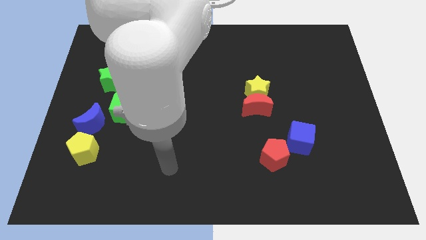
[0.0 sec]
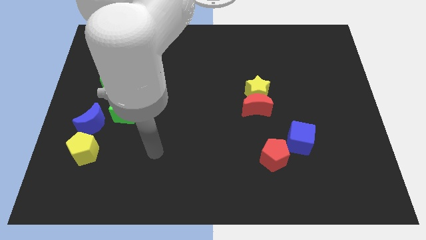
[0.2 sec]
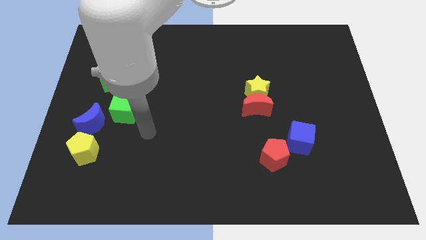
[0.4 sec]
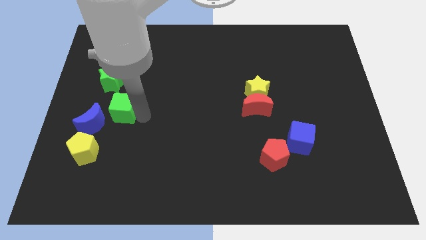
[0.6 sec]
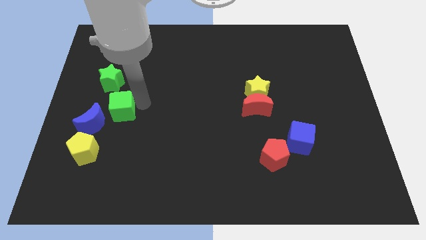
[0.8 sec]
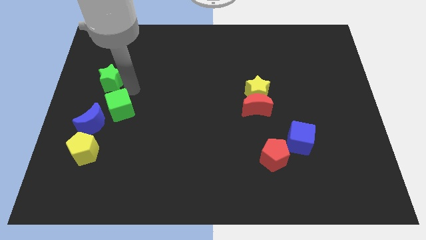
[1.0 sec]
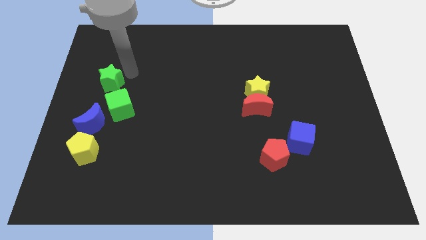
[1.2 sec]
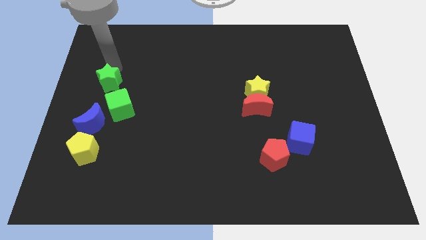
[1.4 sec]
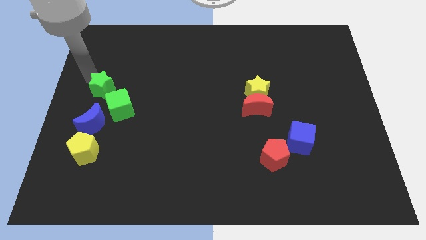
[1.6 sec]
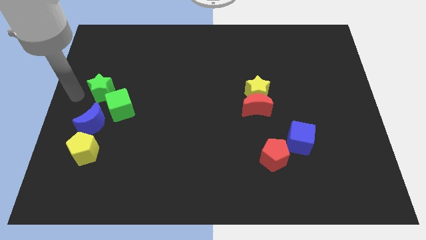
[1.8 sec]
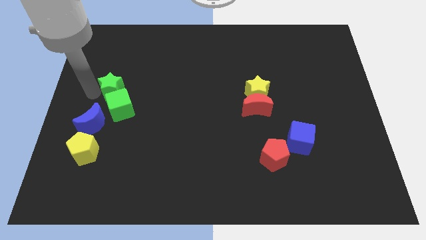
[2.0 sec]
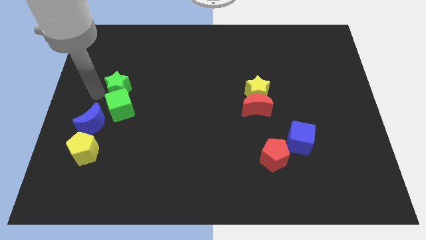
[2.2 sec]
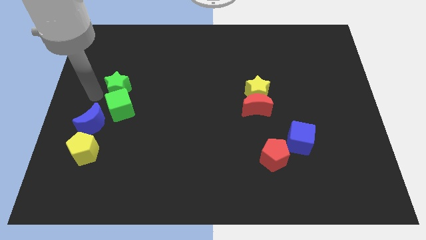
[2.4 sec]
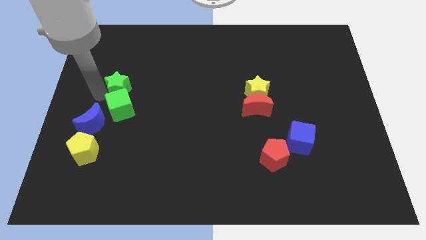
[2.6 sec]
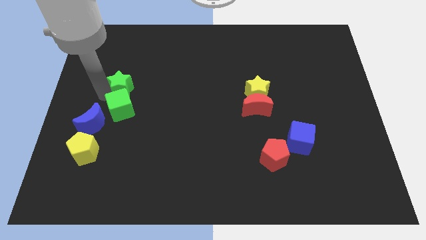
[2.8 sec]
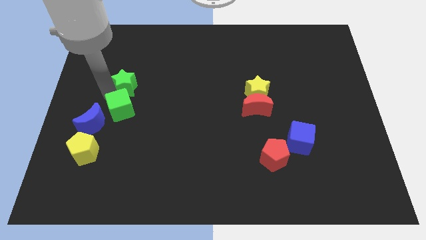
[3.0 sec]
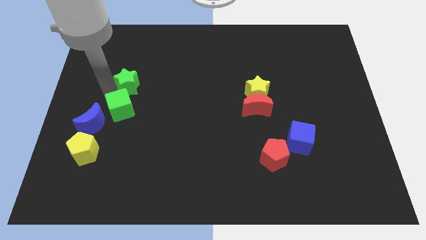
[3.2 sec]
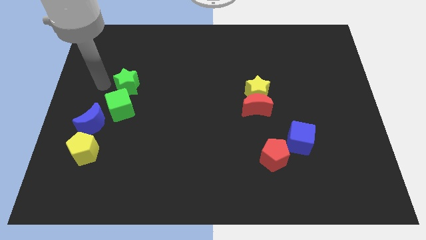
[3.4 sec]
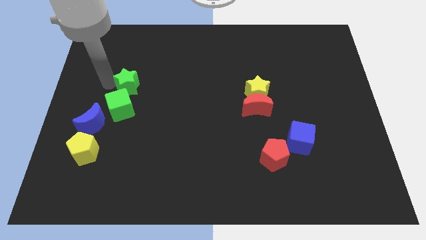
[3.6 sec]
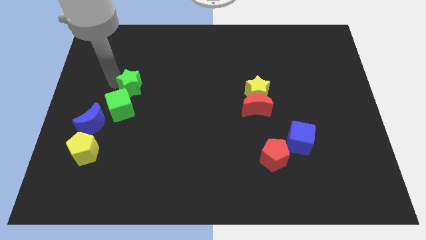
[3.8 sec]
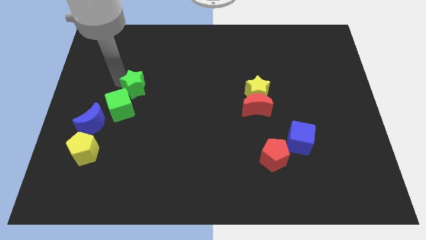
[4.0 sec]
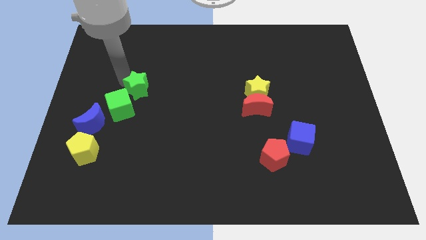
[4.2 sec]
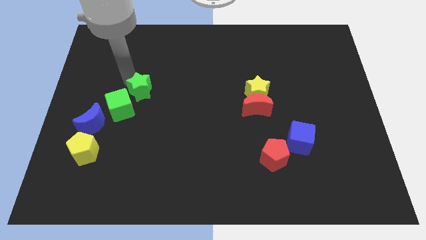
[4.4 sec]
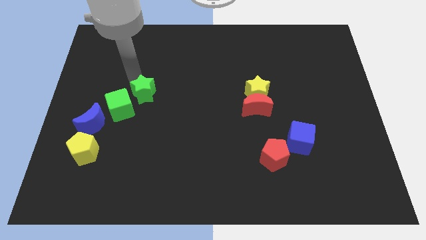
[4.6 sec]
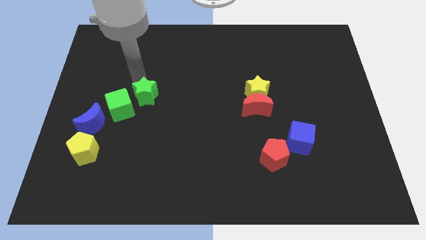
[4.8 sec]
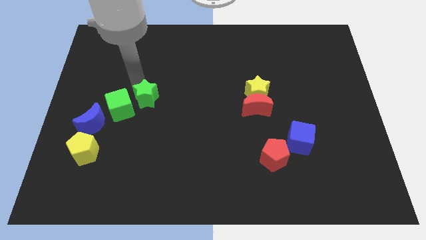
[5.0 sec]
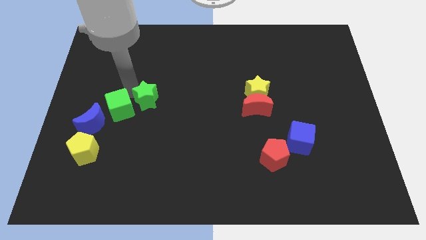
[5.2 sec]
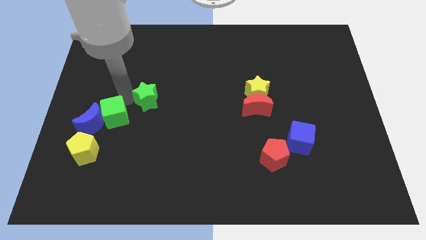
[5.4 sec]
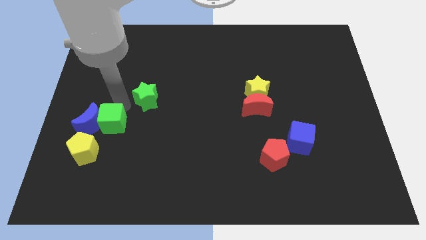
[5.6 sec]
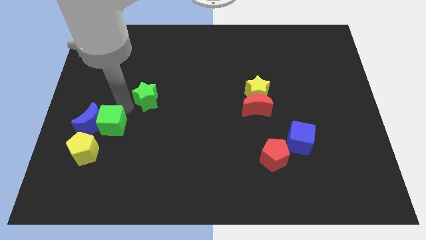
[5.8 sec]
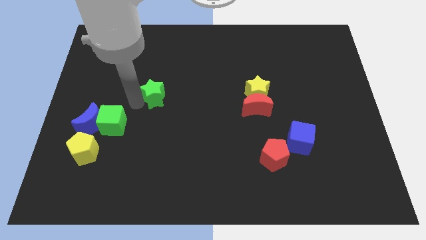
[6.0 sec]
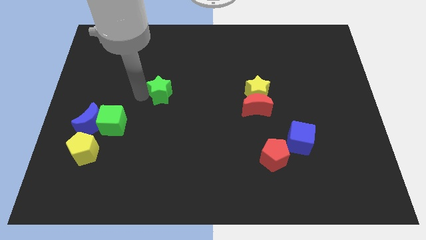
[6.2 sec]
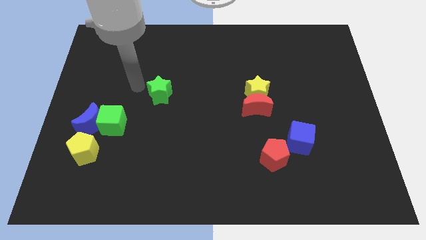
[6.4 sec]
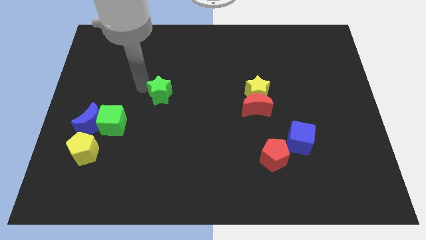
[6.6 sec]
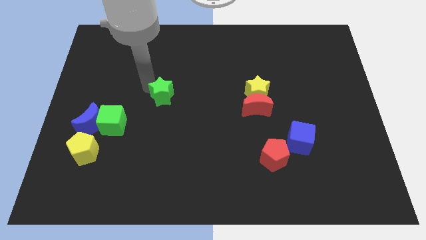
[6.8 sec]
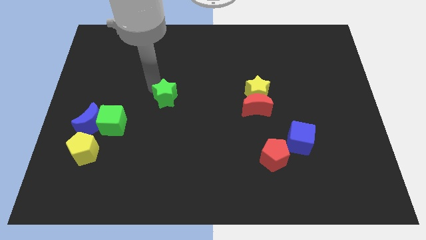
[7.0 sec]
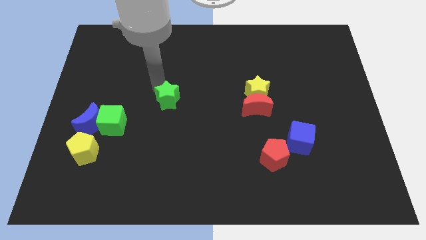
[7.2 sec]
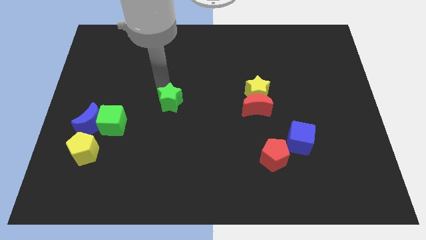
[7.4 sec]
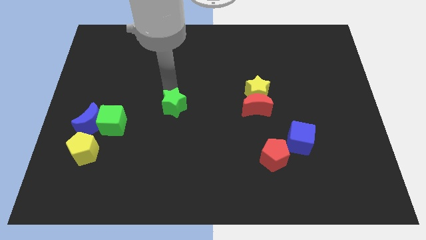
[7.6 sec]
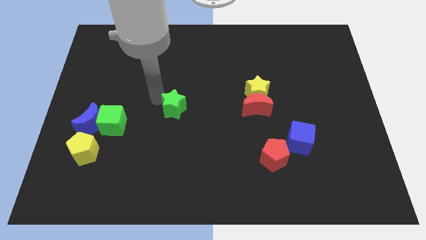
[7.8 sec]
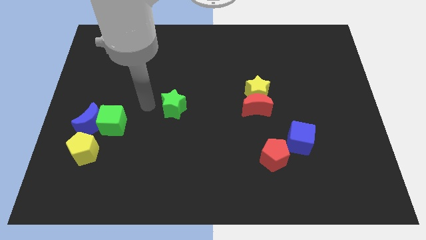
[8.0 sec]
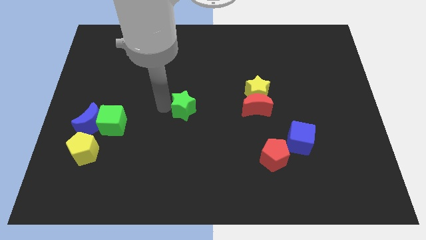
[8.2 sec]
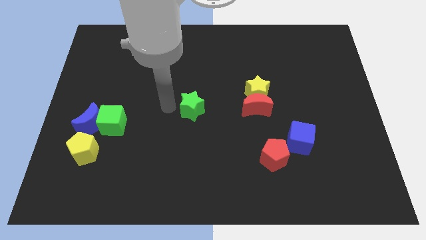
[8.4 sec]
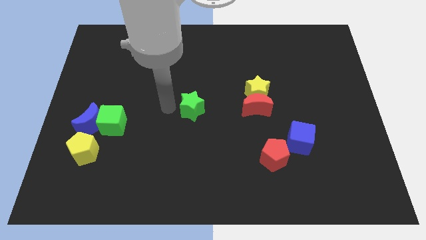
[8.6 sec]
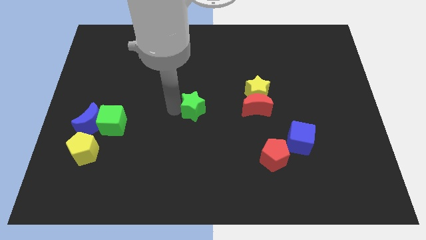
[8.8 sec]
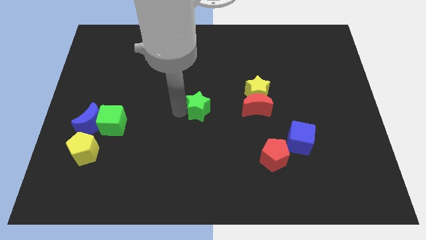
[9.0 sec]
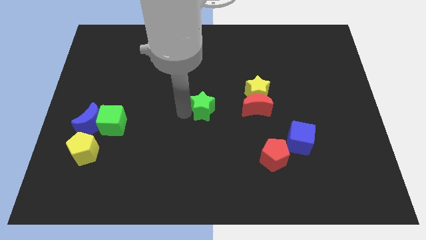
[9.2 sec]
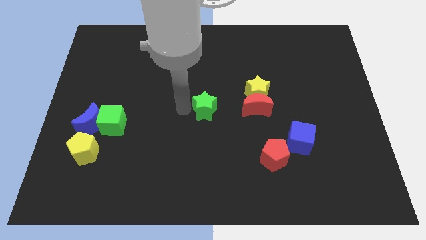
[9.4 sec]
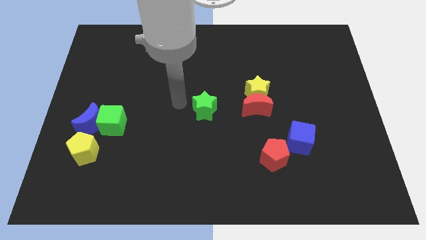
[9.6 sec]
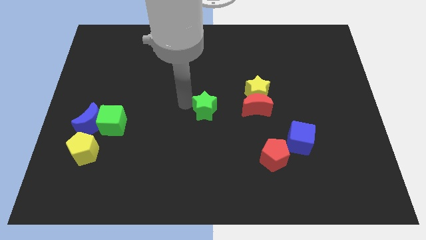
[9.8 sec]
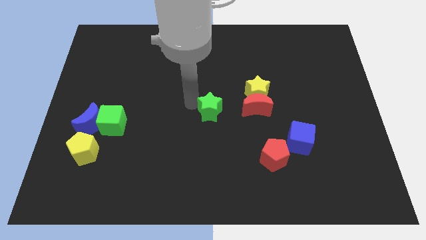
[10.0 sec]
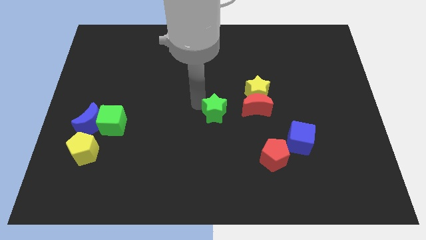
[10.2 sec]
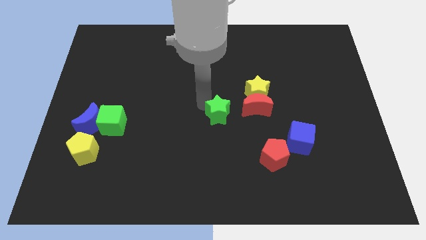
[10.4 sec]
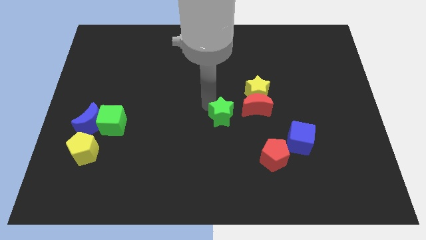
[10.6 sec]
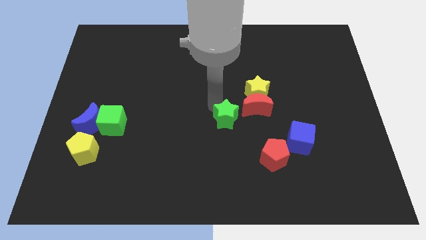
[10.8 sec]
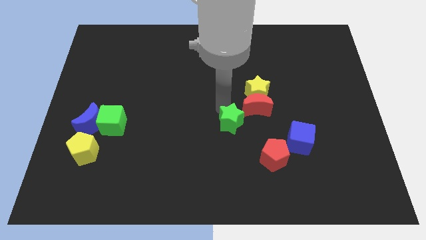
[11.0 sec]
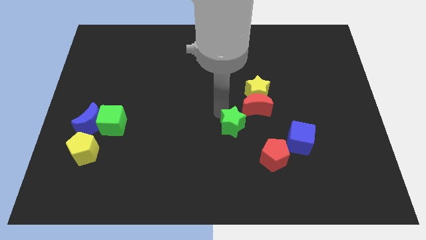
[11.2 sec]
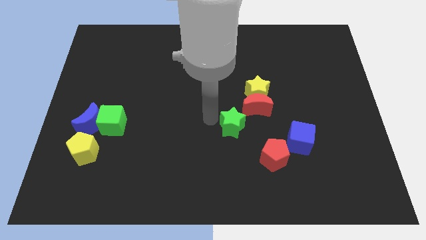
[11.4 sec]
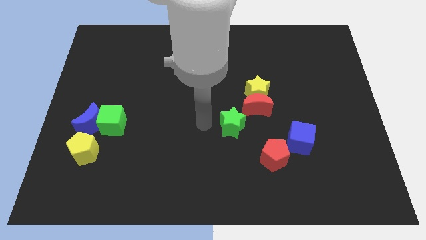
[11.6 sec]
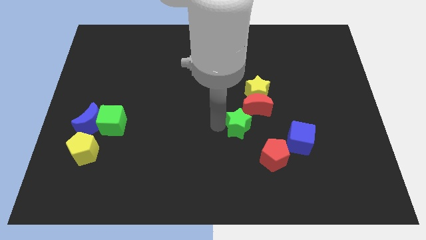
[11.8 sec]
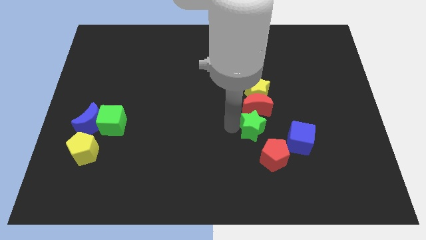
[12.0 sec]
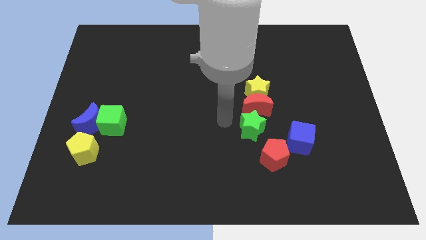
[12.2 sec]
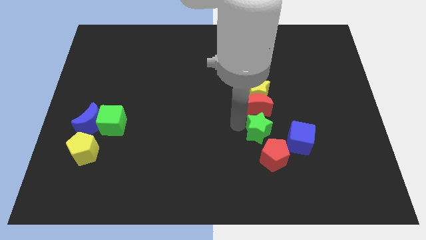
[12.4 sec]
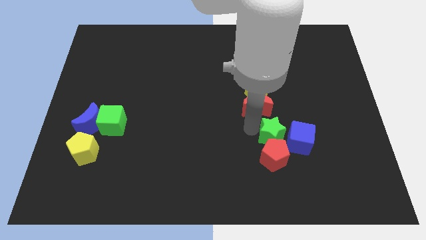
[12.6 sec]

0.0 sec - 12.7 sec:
put the green star next to the blue cube

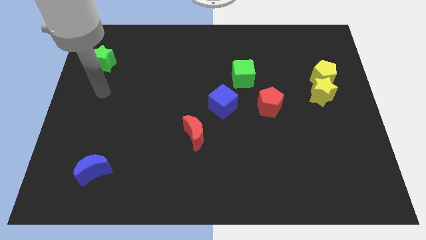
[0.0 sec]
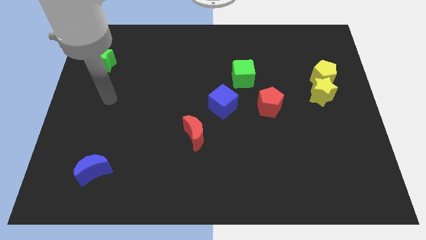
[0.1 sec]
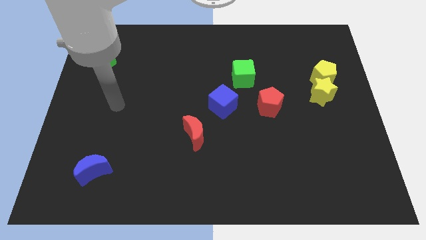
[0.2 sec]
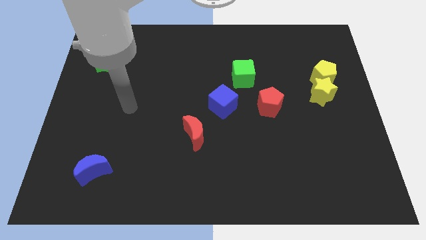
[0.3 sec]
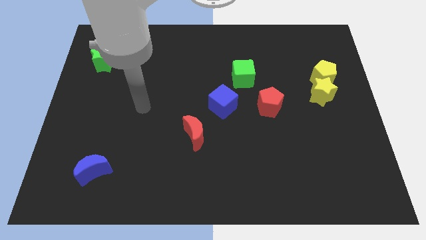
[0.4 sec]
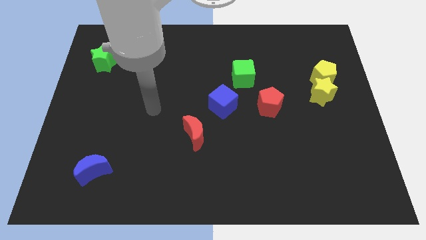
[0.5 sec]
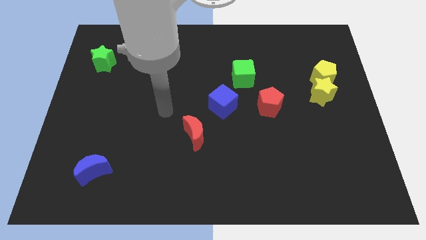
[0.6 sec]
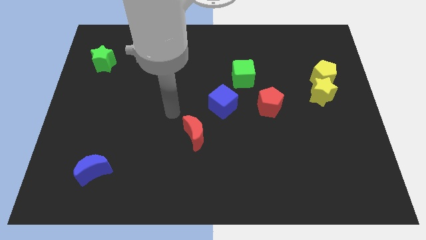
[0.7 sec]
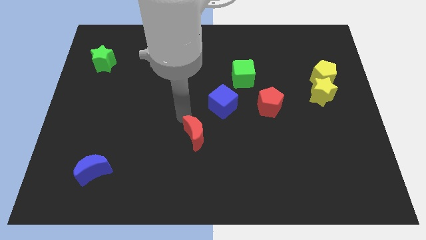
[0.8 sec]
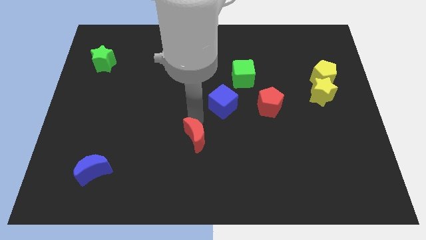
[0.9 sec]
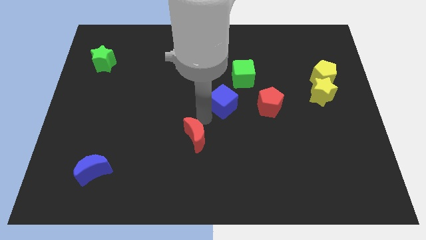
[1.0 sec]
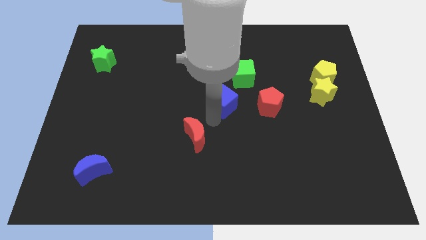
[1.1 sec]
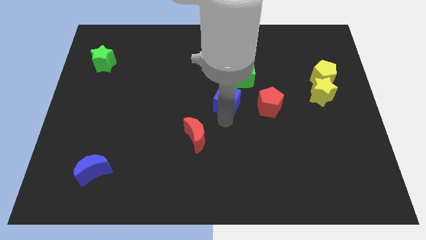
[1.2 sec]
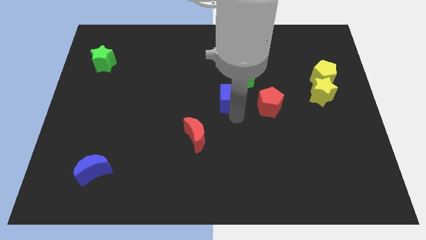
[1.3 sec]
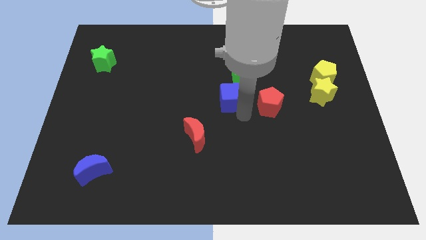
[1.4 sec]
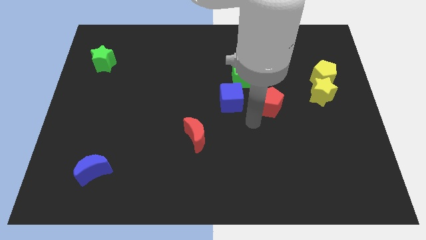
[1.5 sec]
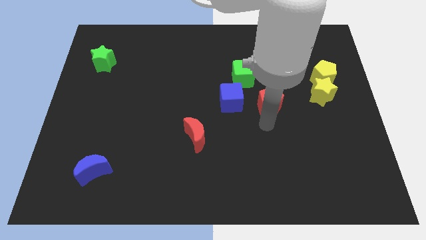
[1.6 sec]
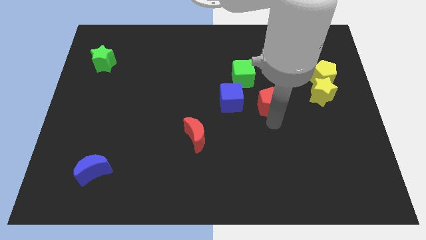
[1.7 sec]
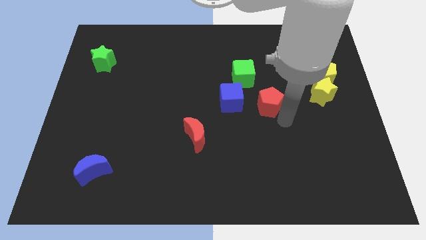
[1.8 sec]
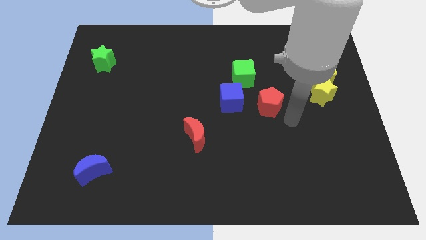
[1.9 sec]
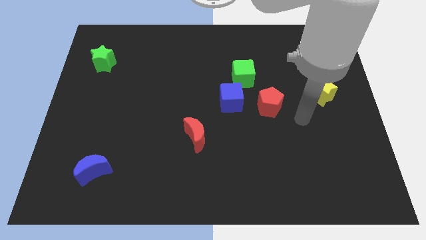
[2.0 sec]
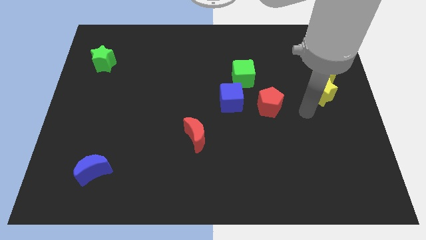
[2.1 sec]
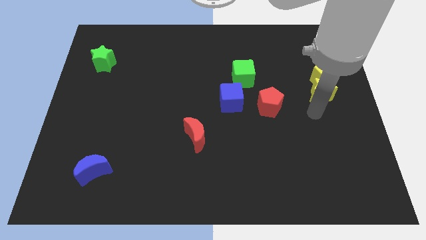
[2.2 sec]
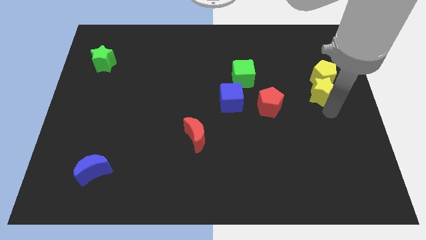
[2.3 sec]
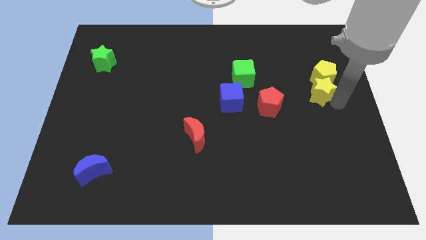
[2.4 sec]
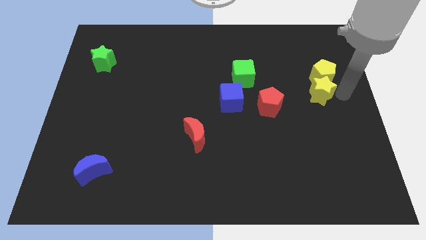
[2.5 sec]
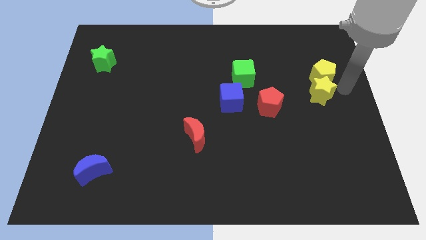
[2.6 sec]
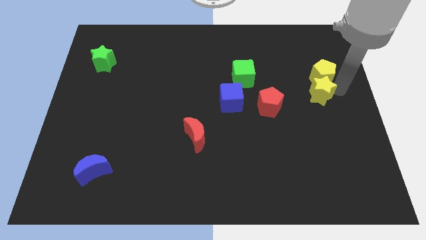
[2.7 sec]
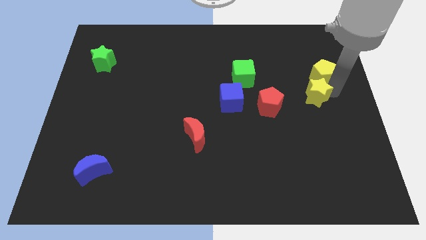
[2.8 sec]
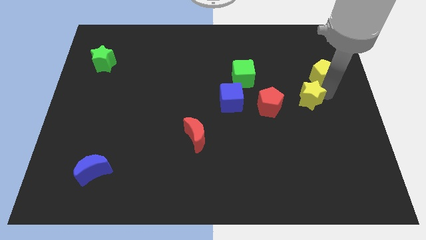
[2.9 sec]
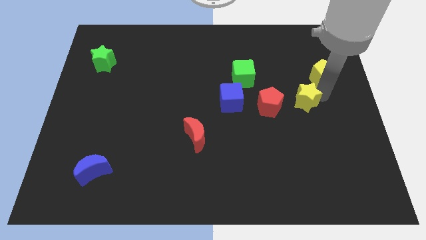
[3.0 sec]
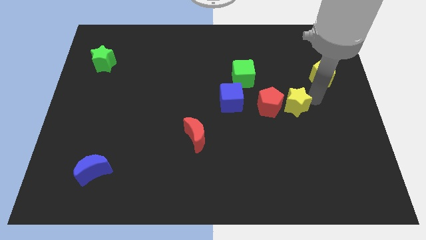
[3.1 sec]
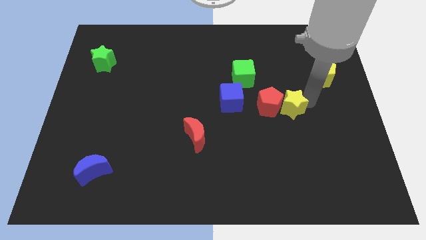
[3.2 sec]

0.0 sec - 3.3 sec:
move the yellow star to the red pentagon
